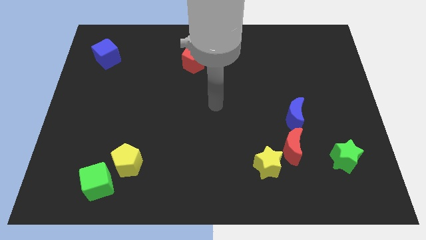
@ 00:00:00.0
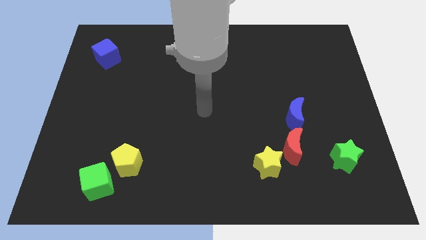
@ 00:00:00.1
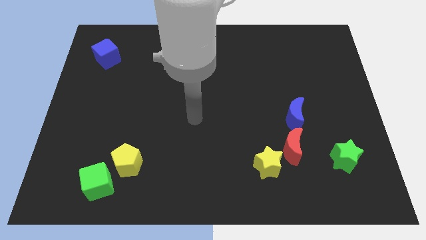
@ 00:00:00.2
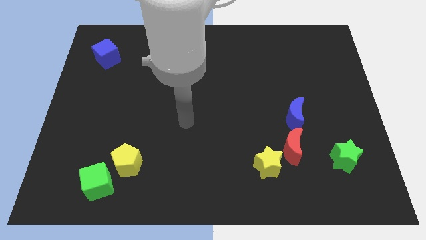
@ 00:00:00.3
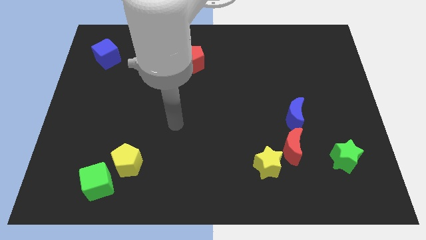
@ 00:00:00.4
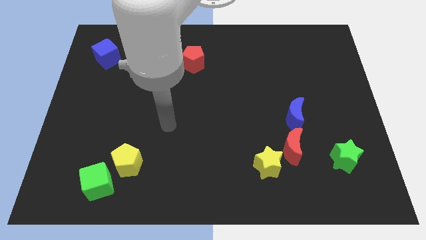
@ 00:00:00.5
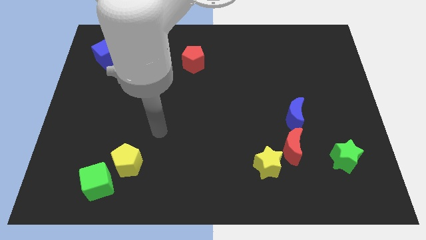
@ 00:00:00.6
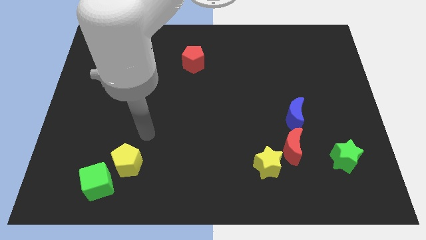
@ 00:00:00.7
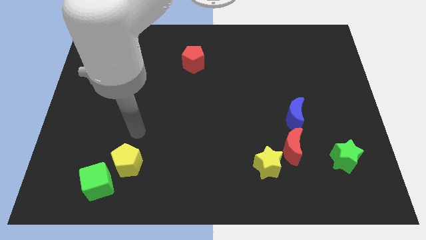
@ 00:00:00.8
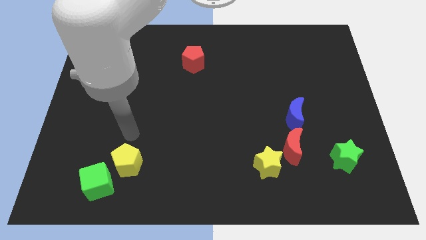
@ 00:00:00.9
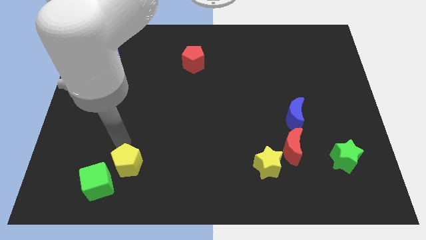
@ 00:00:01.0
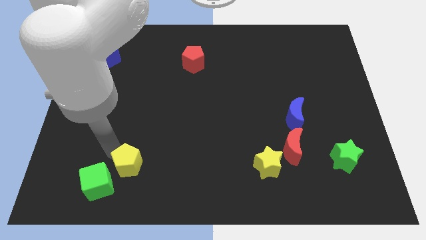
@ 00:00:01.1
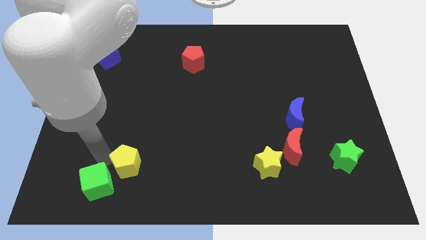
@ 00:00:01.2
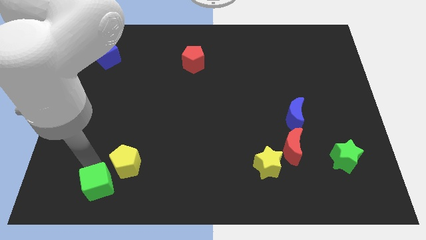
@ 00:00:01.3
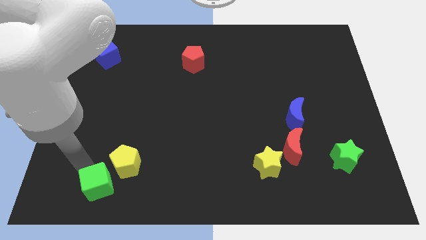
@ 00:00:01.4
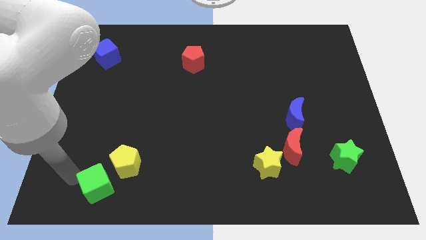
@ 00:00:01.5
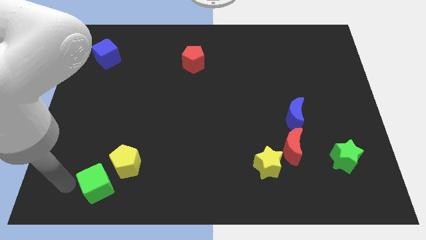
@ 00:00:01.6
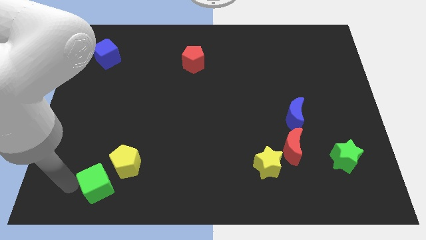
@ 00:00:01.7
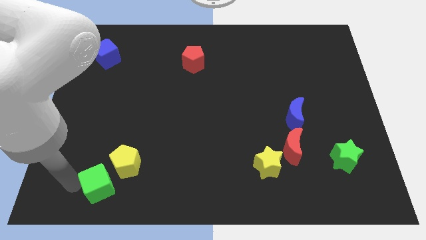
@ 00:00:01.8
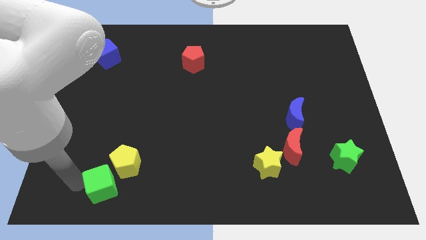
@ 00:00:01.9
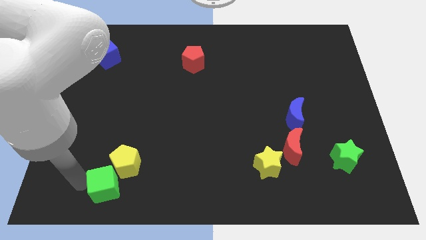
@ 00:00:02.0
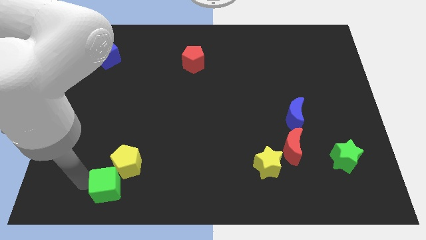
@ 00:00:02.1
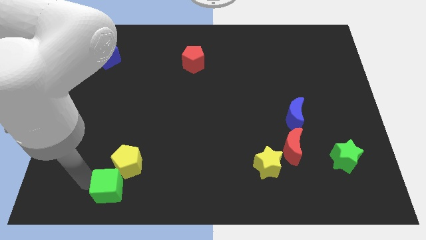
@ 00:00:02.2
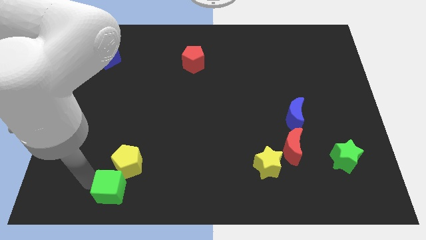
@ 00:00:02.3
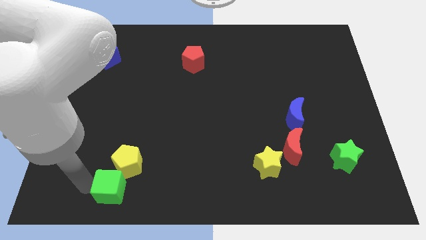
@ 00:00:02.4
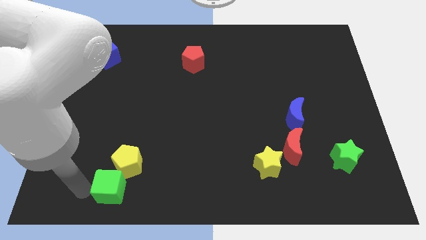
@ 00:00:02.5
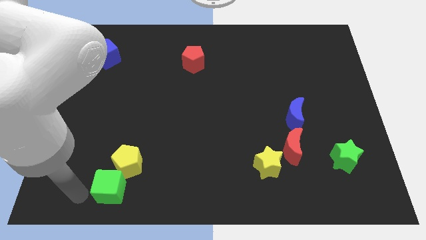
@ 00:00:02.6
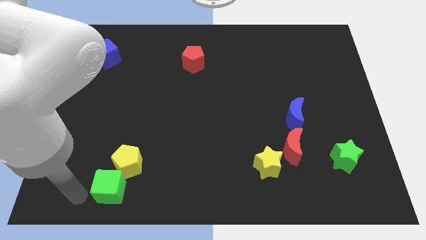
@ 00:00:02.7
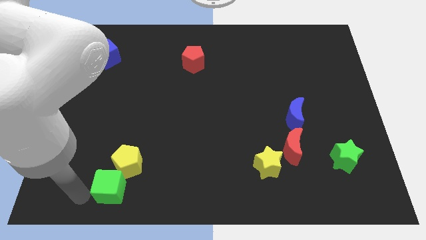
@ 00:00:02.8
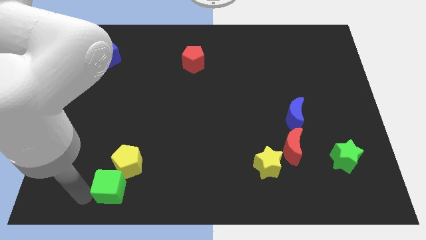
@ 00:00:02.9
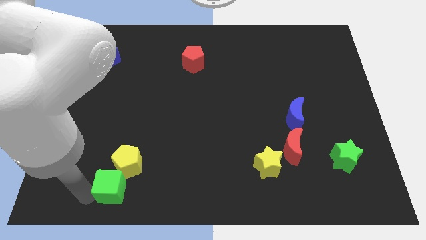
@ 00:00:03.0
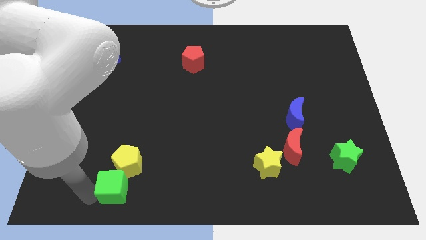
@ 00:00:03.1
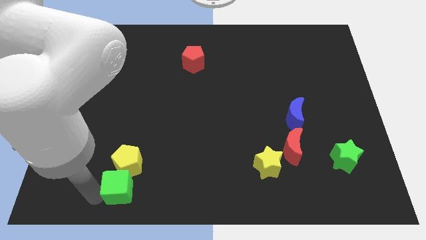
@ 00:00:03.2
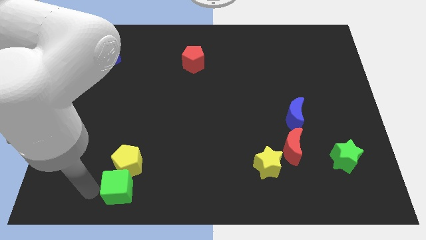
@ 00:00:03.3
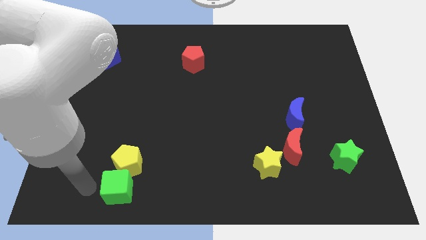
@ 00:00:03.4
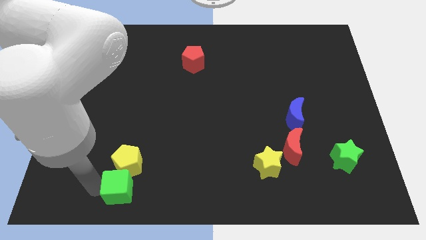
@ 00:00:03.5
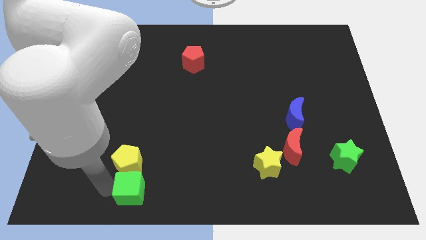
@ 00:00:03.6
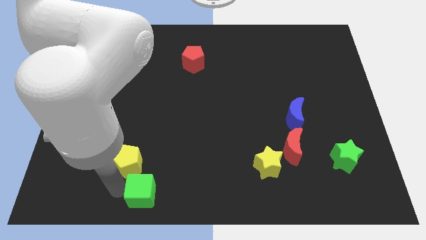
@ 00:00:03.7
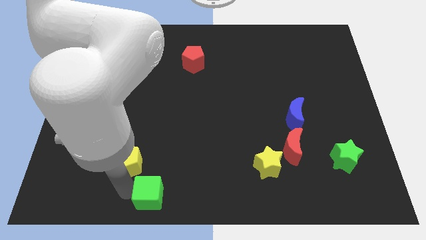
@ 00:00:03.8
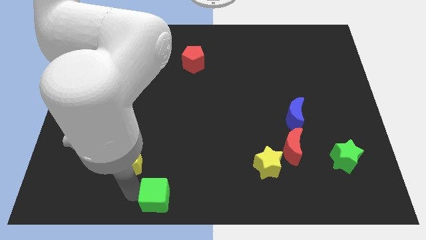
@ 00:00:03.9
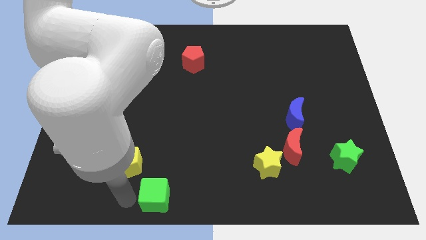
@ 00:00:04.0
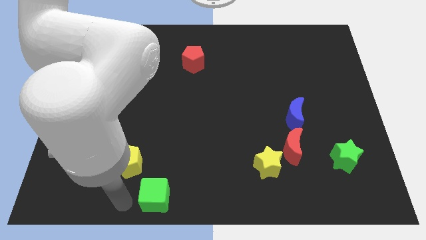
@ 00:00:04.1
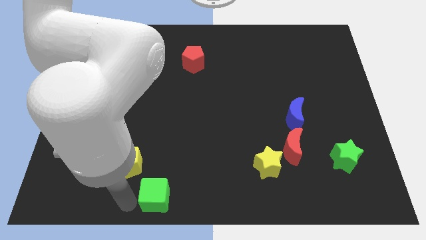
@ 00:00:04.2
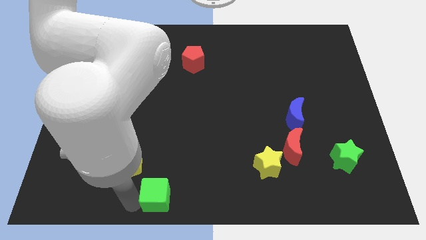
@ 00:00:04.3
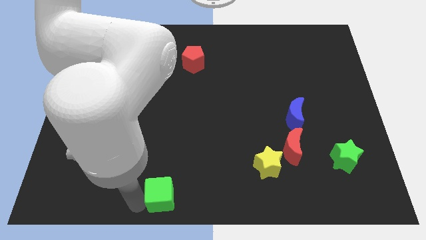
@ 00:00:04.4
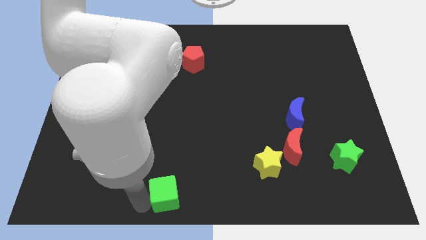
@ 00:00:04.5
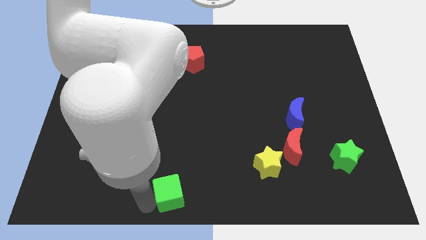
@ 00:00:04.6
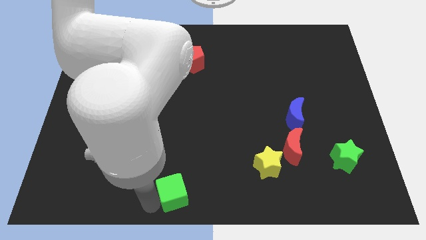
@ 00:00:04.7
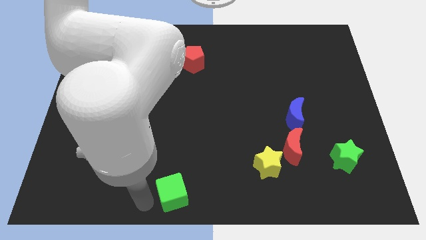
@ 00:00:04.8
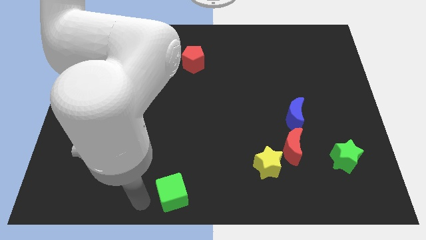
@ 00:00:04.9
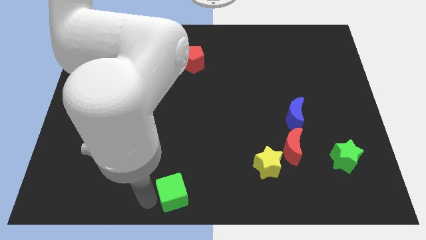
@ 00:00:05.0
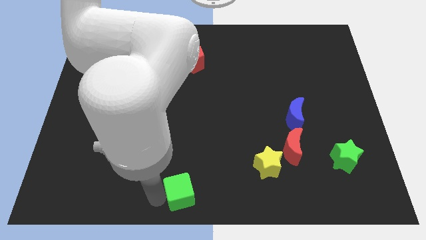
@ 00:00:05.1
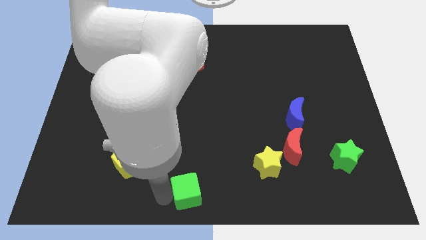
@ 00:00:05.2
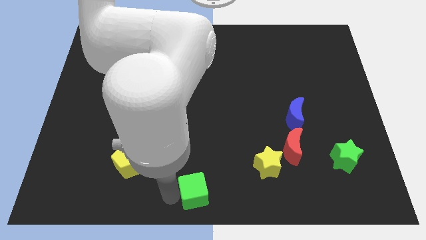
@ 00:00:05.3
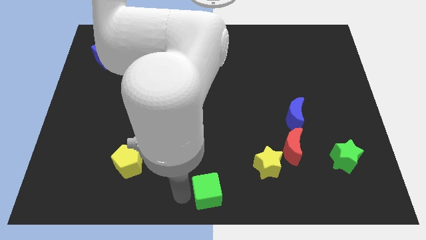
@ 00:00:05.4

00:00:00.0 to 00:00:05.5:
move the green cube to the right

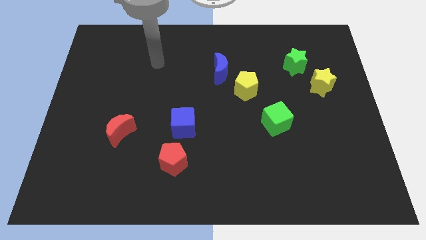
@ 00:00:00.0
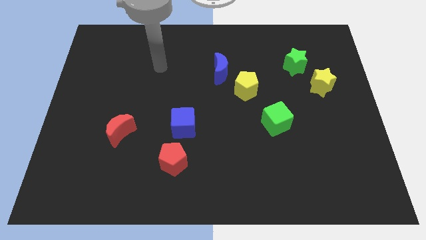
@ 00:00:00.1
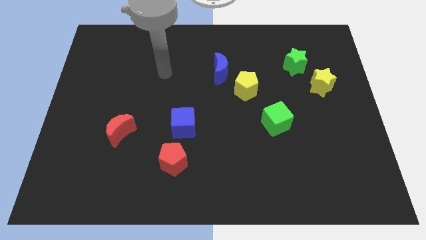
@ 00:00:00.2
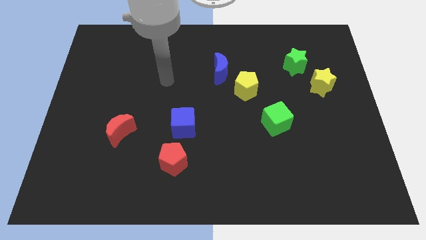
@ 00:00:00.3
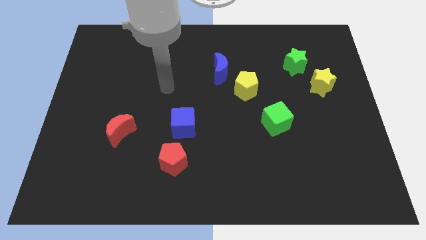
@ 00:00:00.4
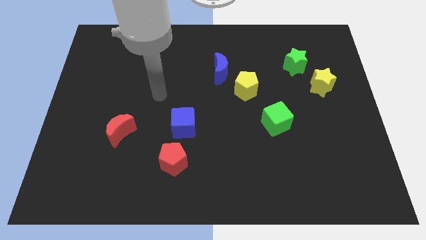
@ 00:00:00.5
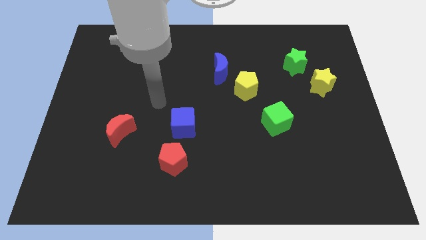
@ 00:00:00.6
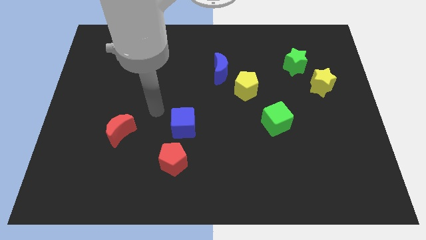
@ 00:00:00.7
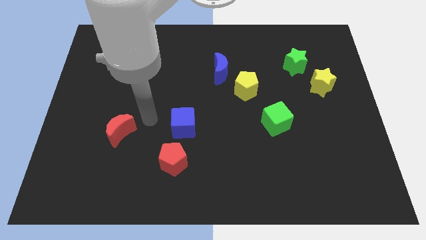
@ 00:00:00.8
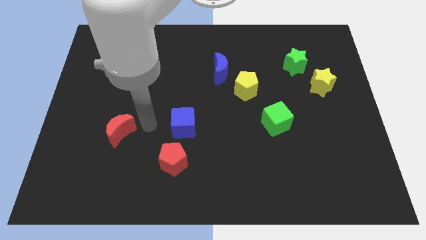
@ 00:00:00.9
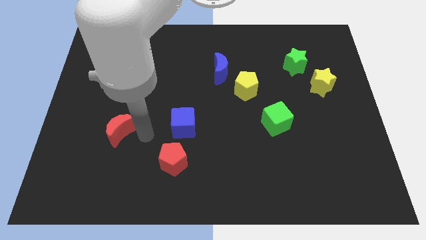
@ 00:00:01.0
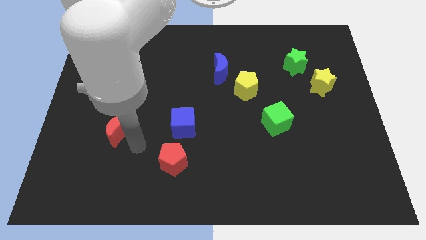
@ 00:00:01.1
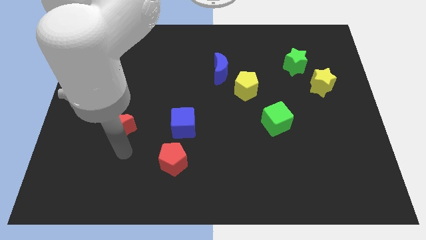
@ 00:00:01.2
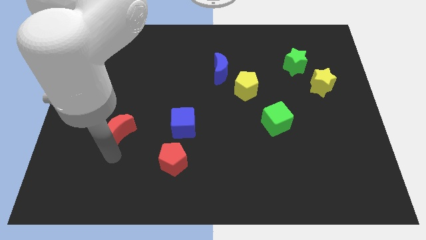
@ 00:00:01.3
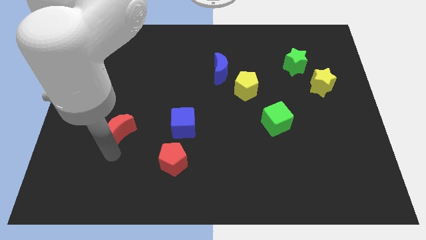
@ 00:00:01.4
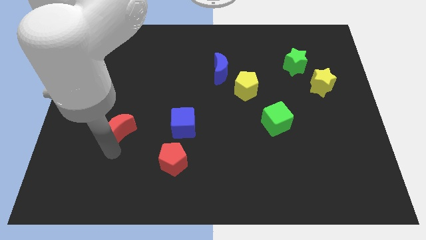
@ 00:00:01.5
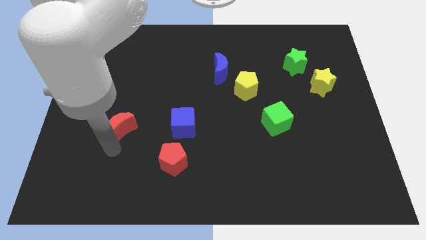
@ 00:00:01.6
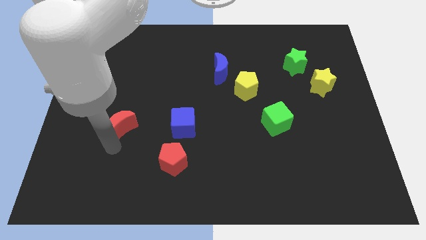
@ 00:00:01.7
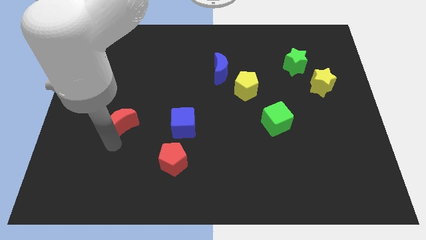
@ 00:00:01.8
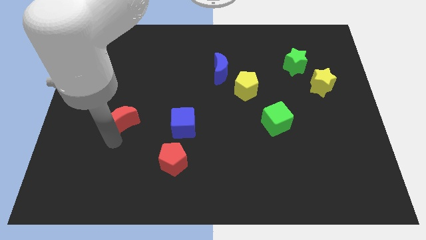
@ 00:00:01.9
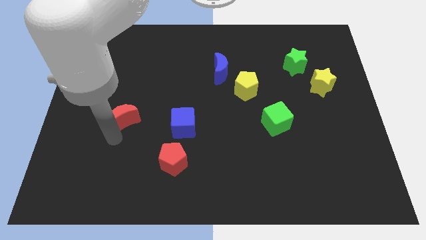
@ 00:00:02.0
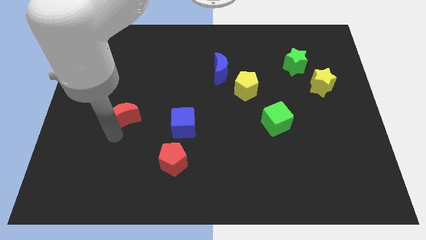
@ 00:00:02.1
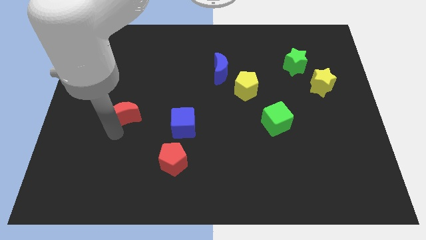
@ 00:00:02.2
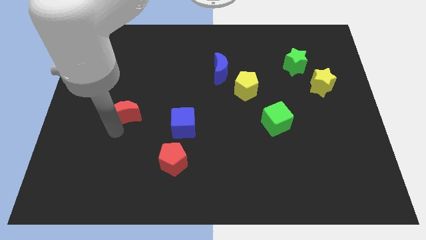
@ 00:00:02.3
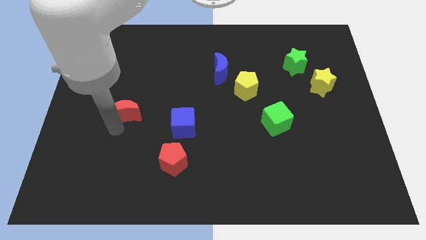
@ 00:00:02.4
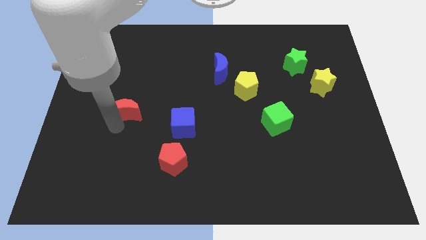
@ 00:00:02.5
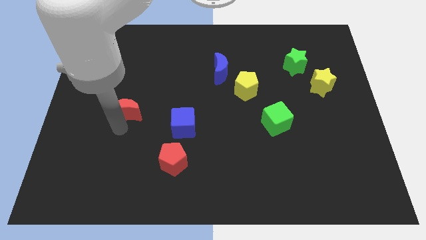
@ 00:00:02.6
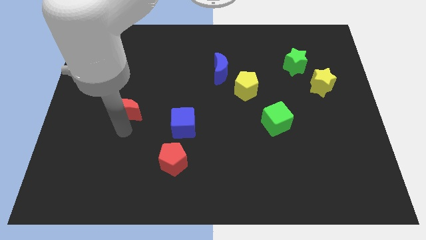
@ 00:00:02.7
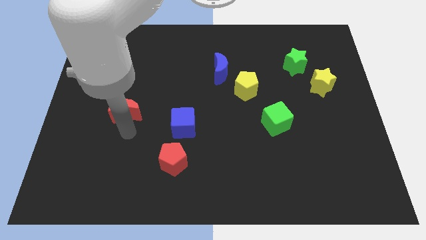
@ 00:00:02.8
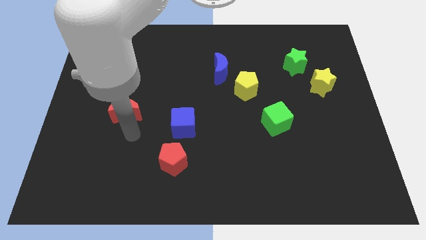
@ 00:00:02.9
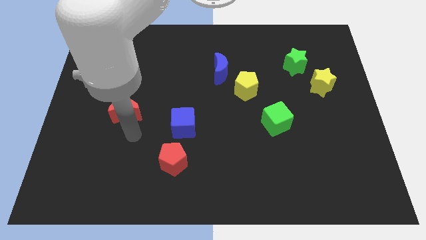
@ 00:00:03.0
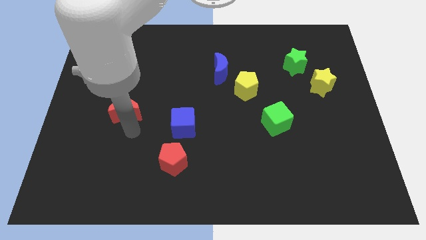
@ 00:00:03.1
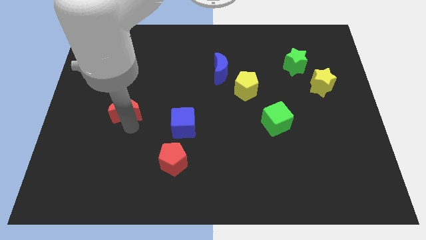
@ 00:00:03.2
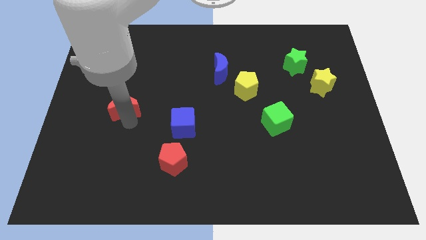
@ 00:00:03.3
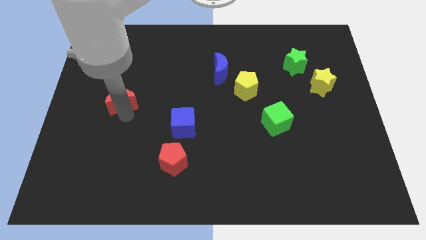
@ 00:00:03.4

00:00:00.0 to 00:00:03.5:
move the red moon up somewhat
